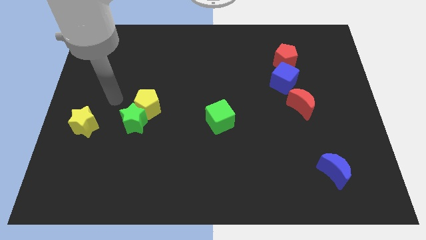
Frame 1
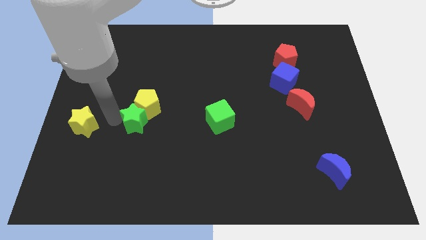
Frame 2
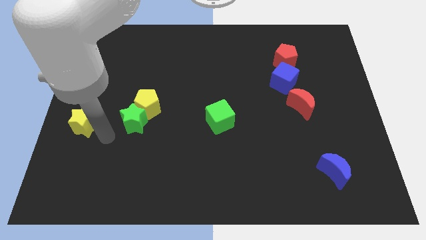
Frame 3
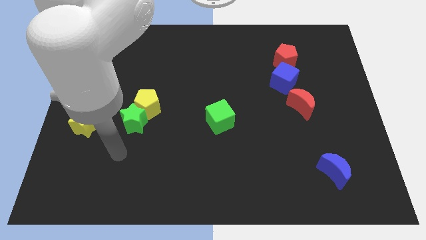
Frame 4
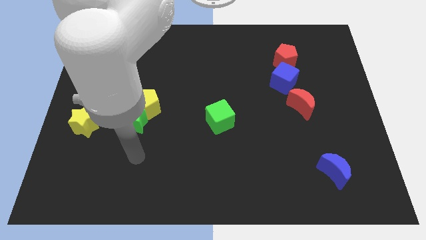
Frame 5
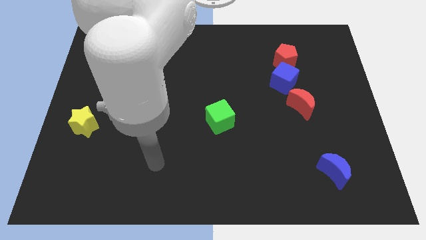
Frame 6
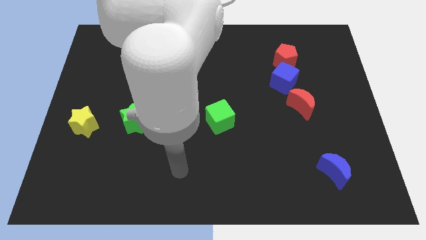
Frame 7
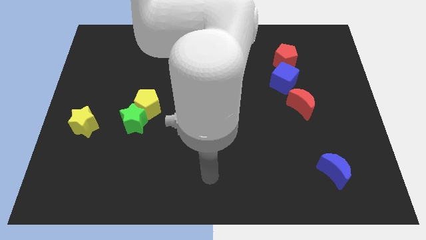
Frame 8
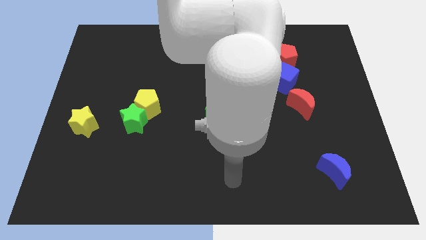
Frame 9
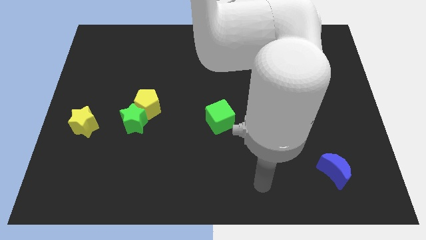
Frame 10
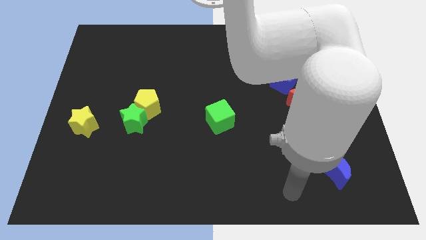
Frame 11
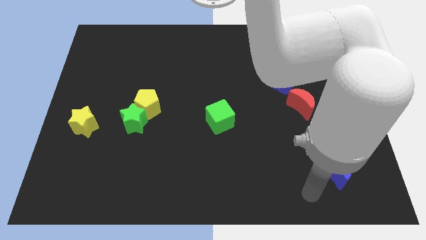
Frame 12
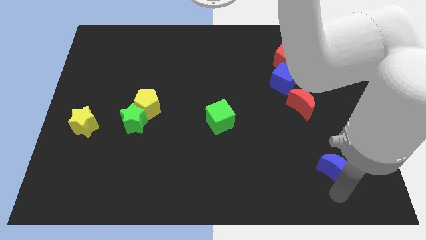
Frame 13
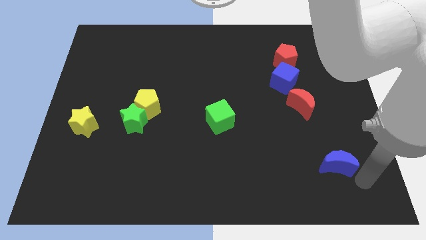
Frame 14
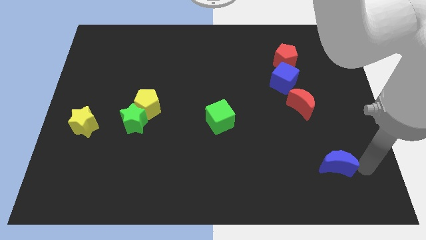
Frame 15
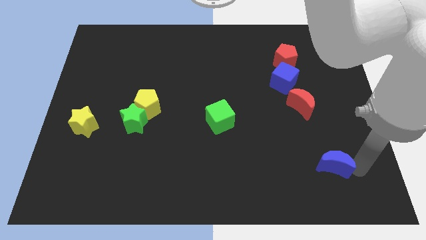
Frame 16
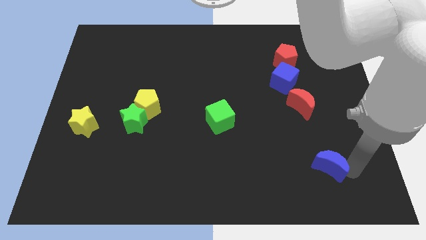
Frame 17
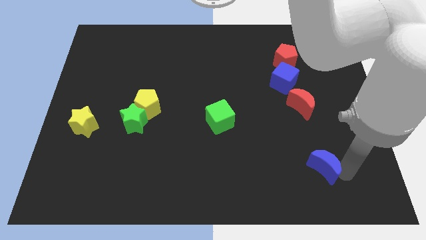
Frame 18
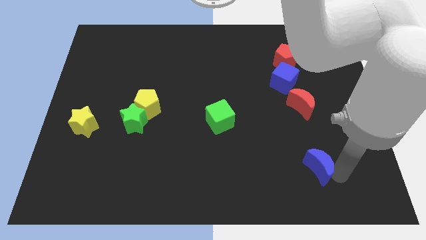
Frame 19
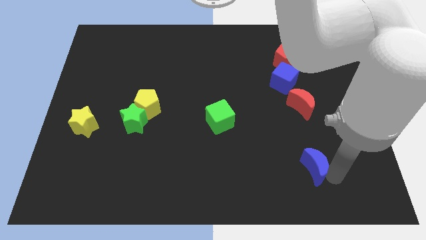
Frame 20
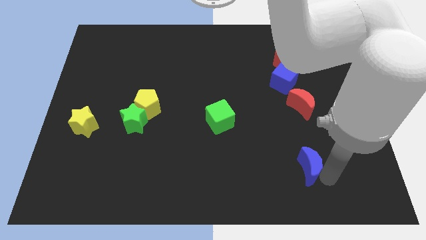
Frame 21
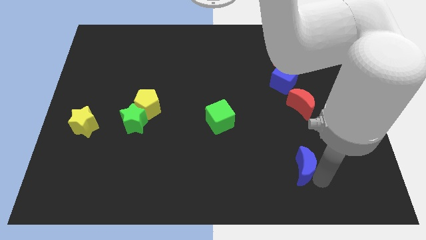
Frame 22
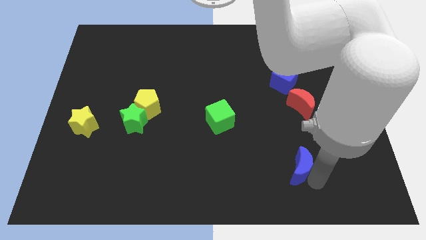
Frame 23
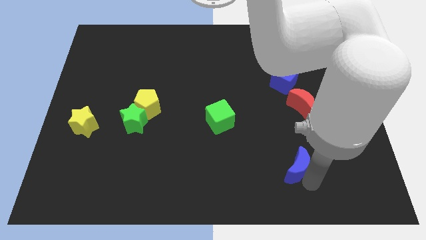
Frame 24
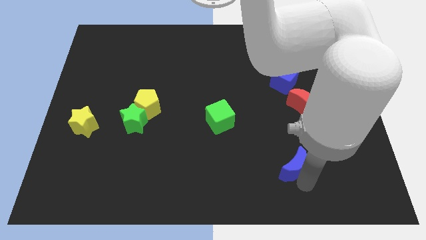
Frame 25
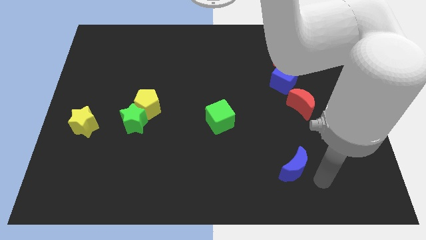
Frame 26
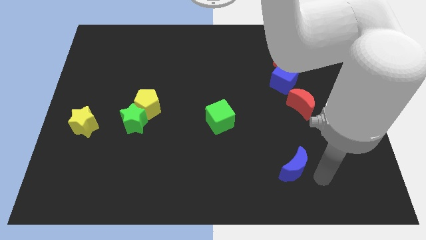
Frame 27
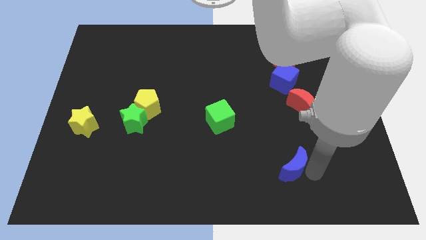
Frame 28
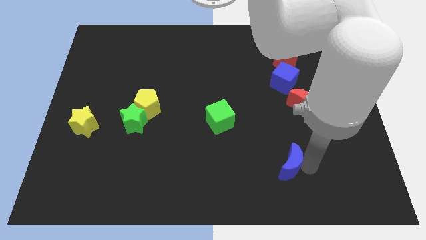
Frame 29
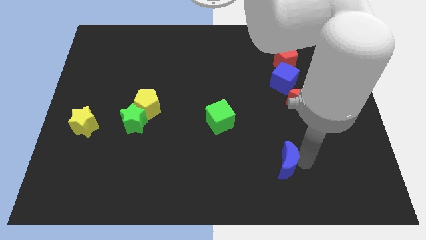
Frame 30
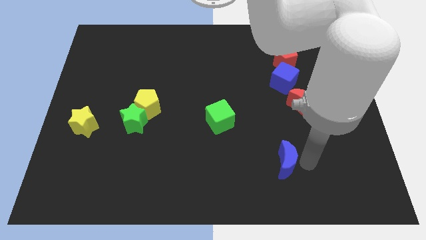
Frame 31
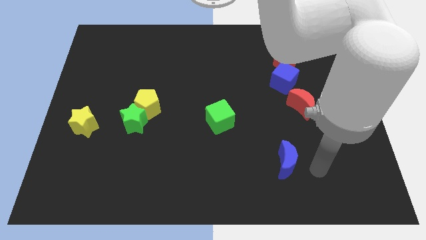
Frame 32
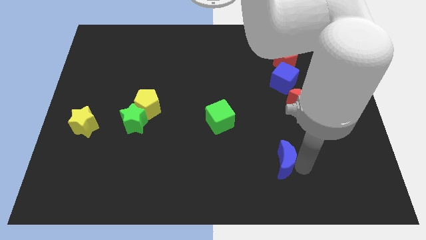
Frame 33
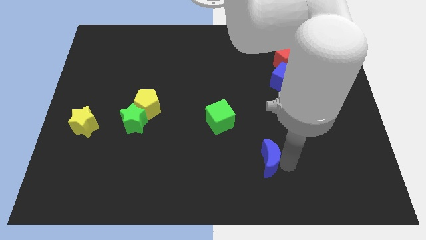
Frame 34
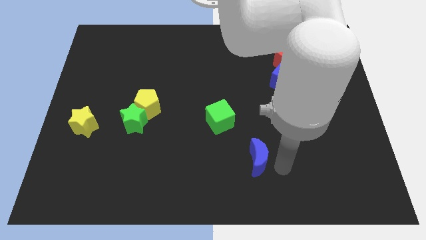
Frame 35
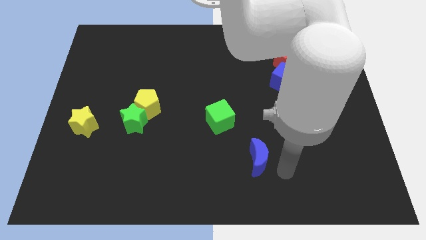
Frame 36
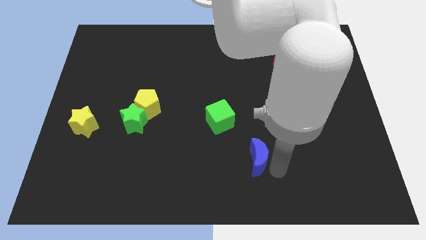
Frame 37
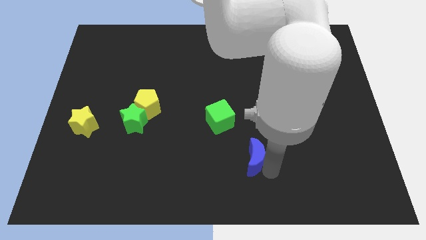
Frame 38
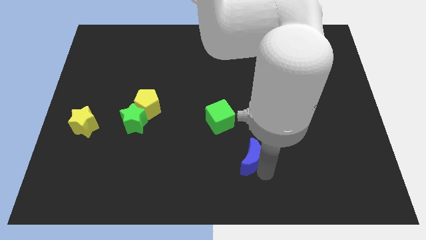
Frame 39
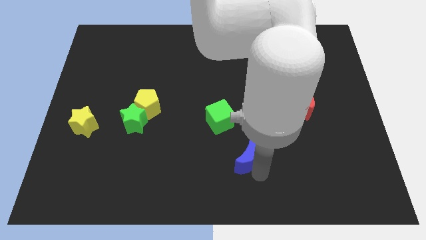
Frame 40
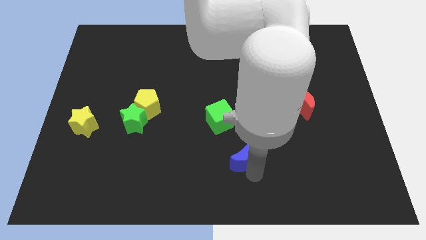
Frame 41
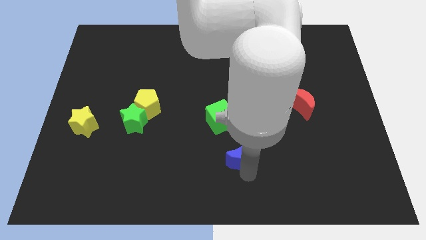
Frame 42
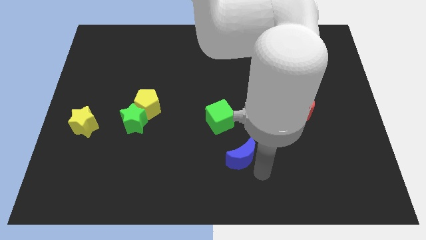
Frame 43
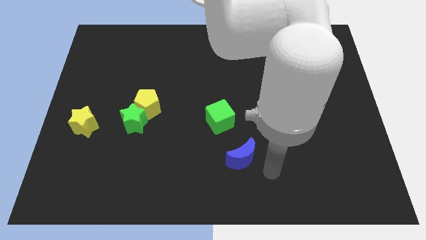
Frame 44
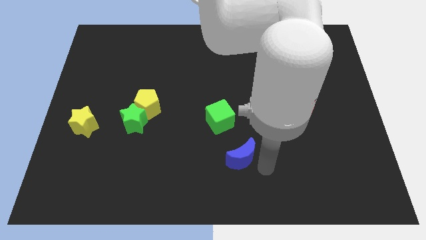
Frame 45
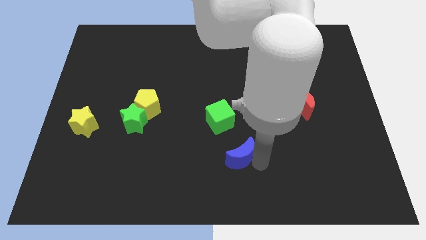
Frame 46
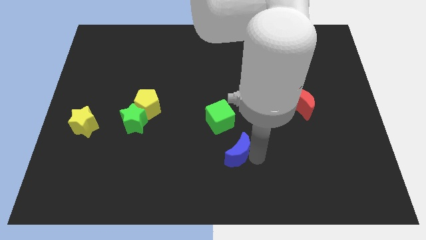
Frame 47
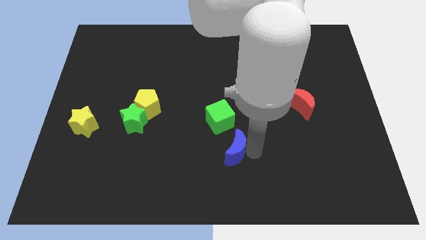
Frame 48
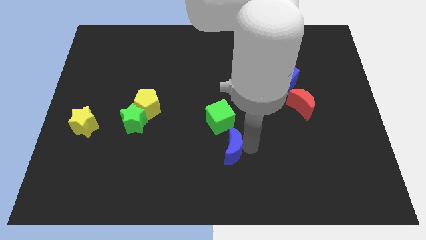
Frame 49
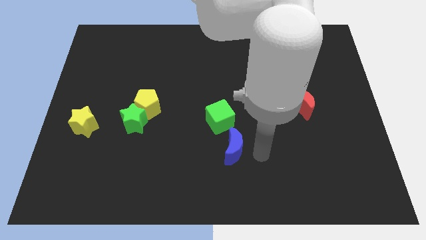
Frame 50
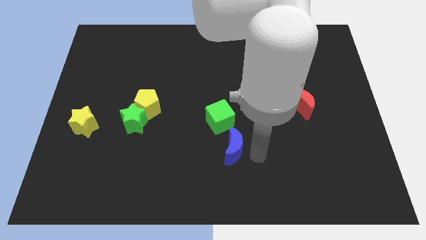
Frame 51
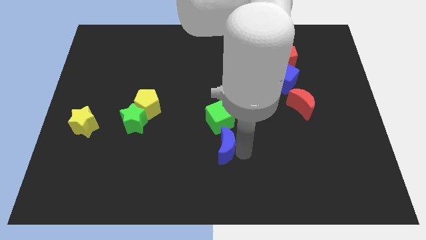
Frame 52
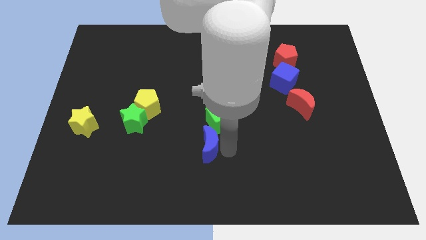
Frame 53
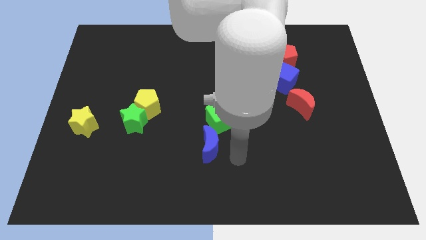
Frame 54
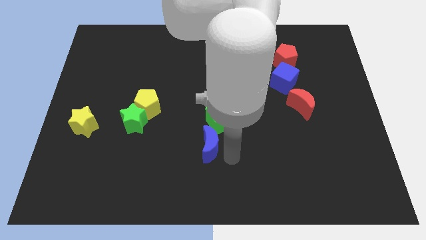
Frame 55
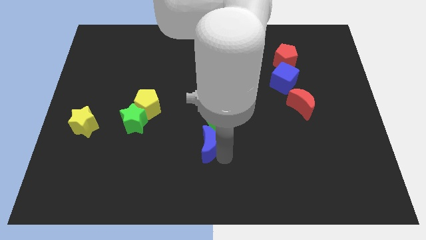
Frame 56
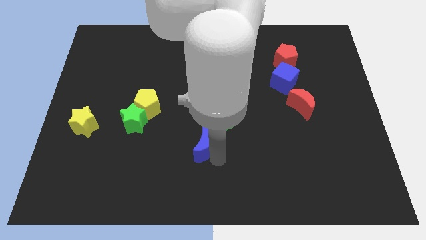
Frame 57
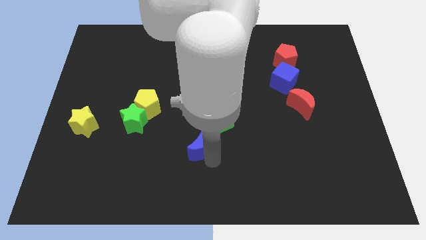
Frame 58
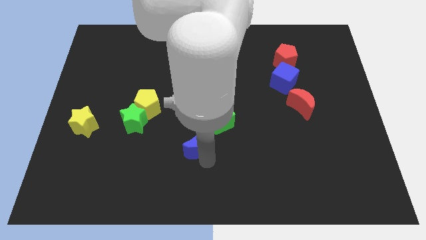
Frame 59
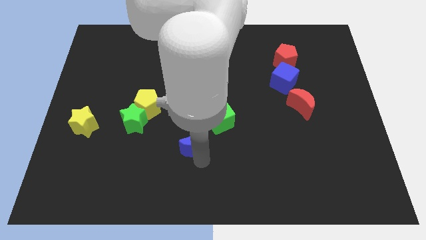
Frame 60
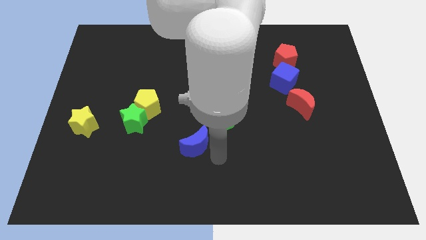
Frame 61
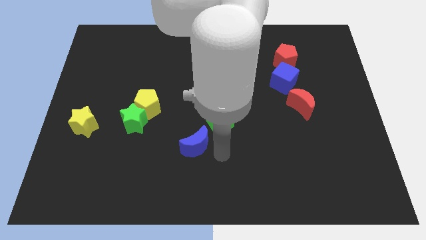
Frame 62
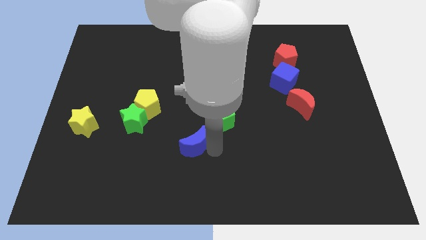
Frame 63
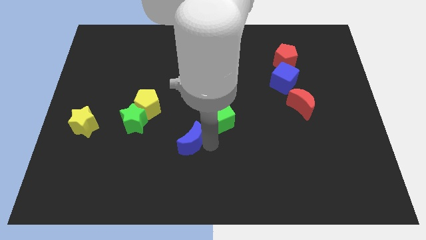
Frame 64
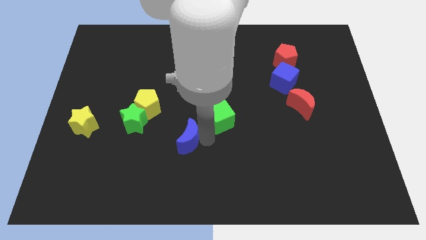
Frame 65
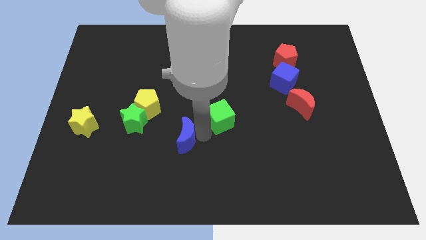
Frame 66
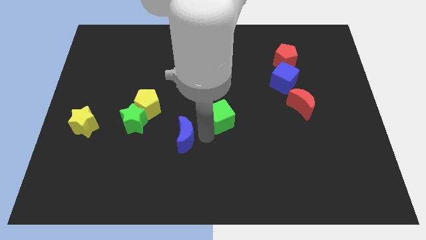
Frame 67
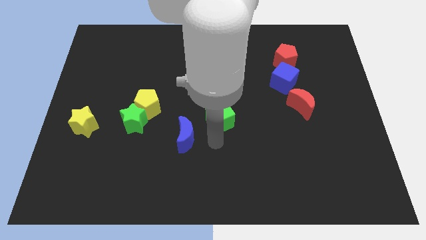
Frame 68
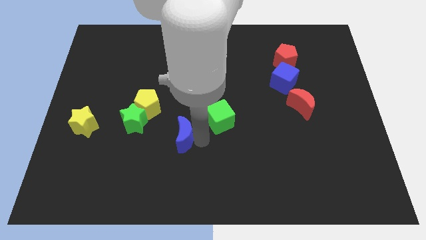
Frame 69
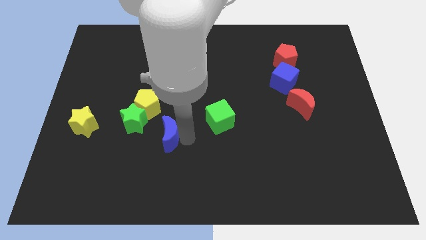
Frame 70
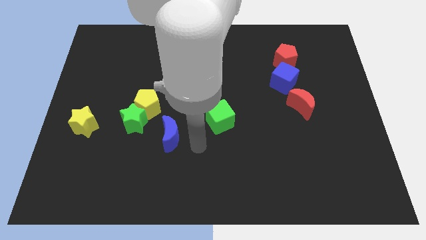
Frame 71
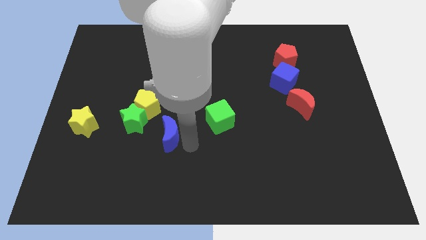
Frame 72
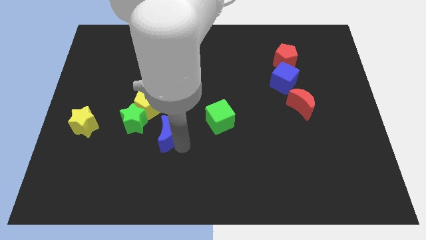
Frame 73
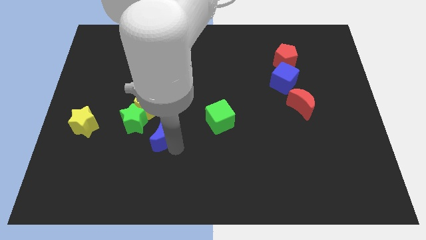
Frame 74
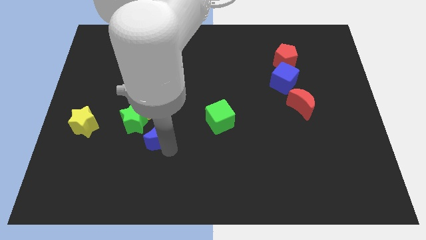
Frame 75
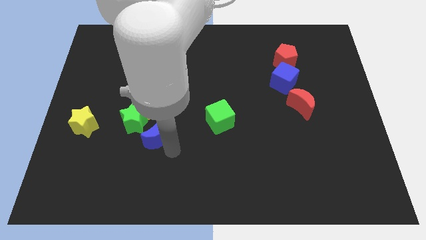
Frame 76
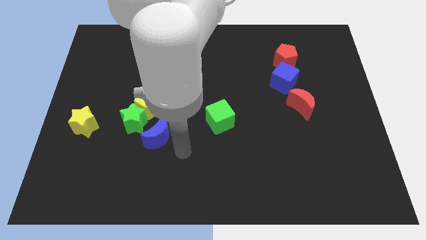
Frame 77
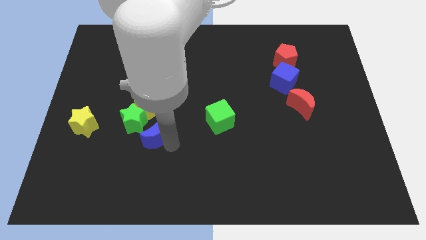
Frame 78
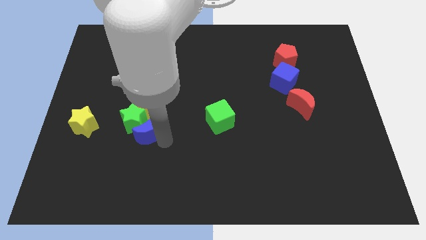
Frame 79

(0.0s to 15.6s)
move the blue moon to the green star
